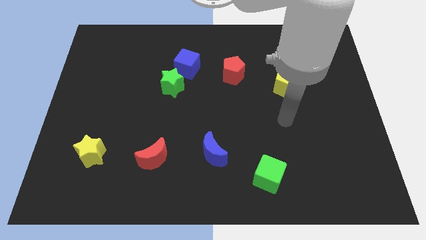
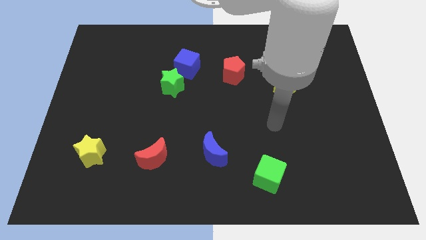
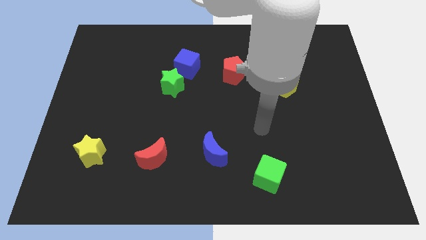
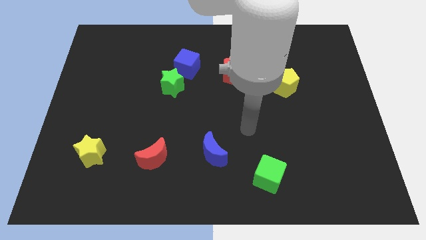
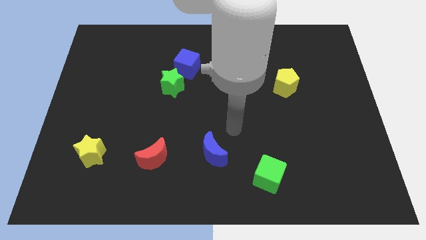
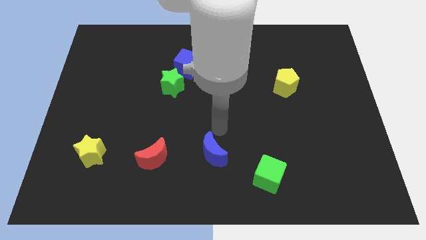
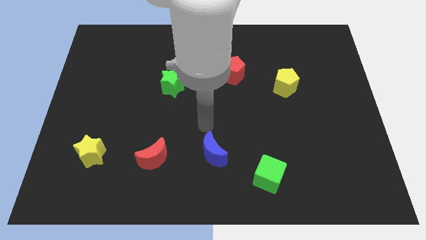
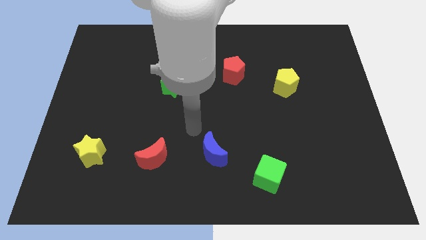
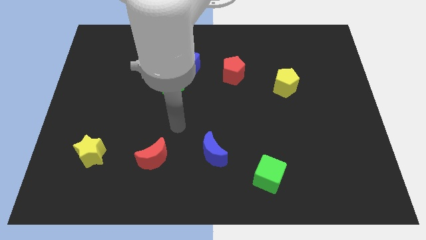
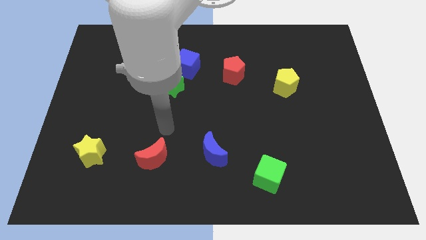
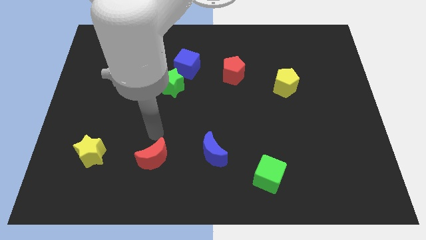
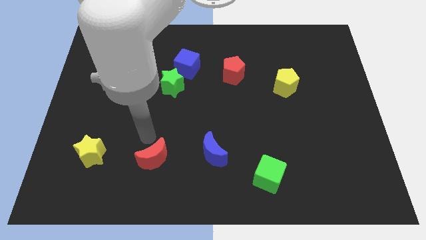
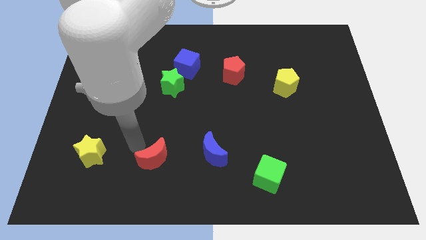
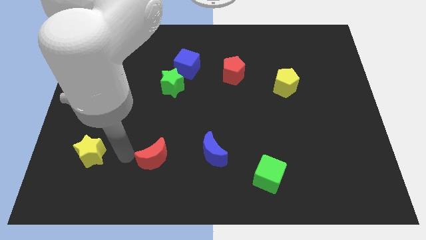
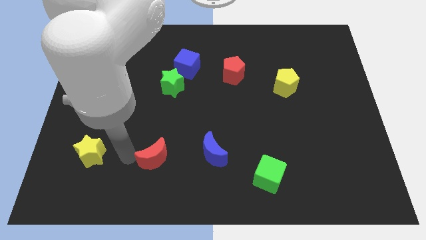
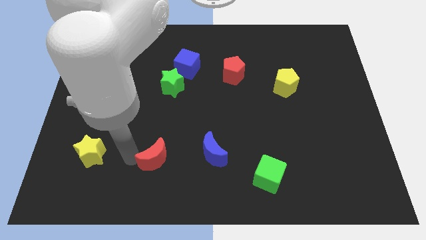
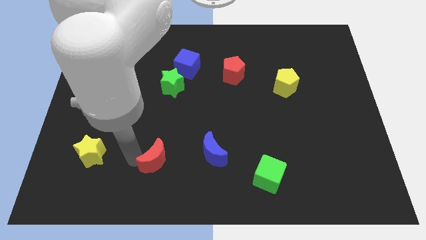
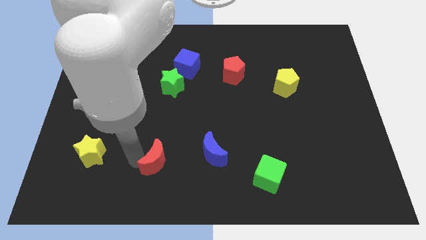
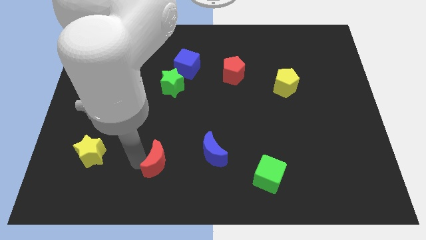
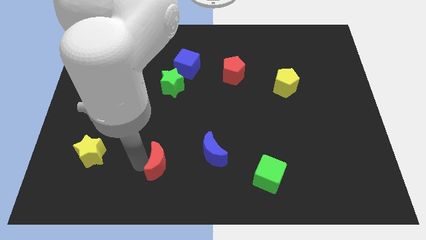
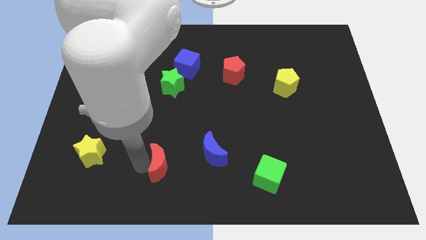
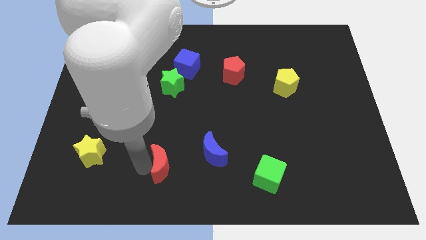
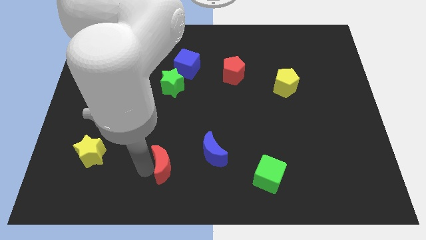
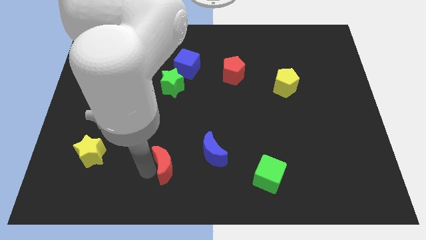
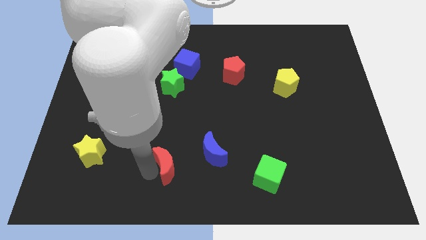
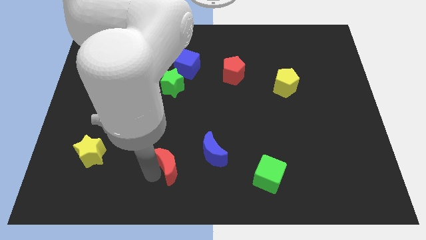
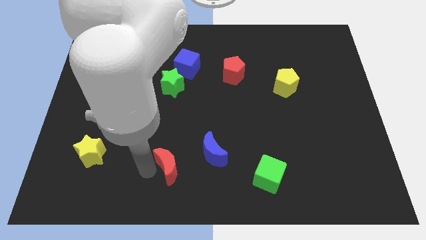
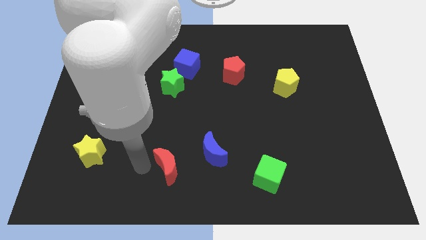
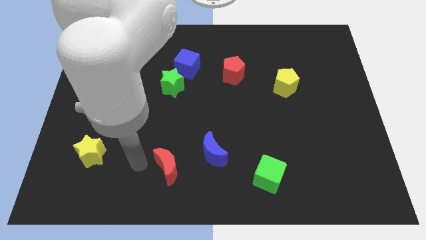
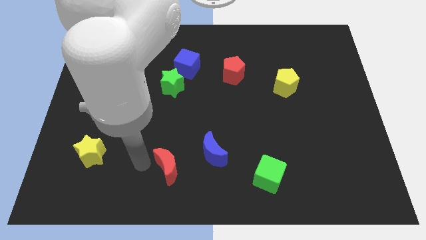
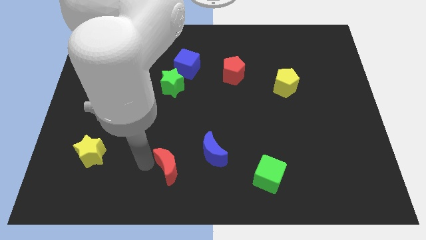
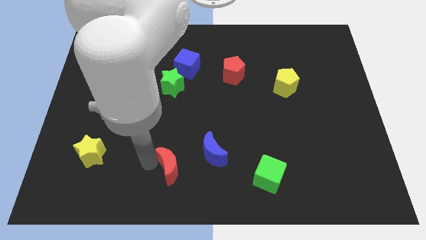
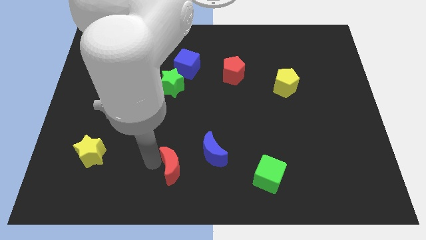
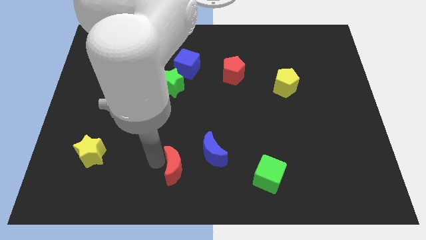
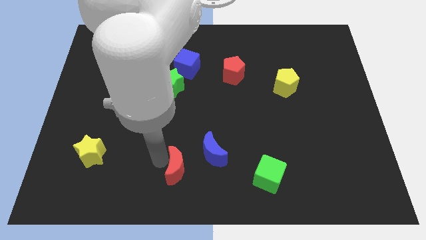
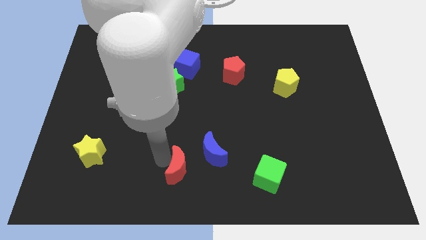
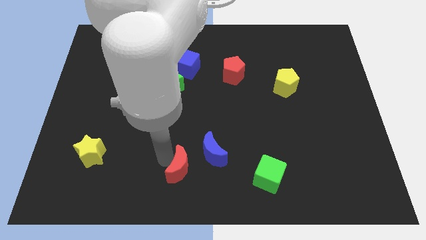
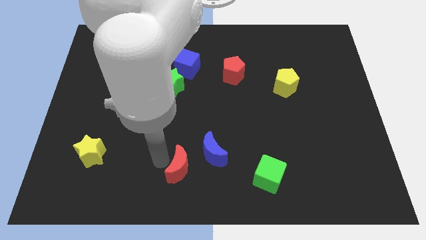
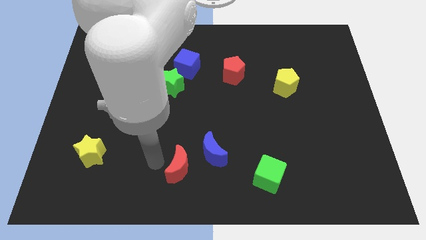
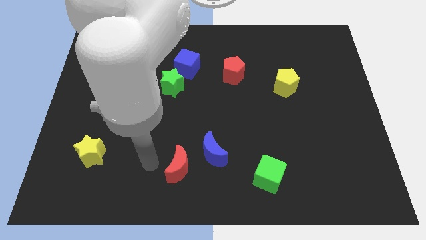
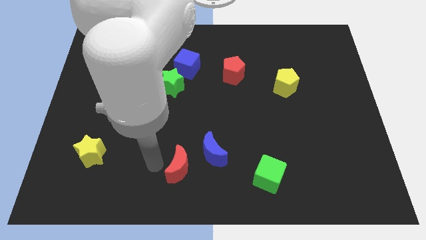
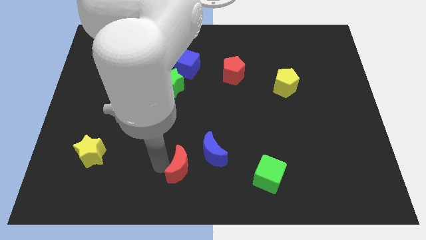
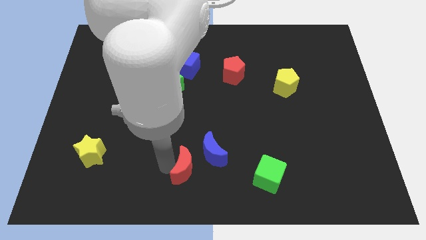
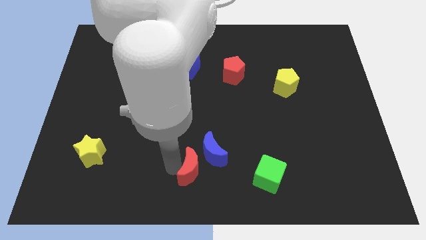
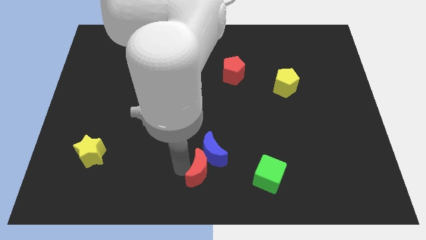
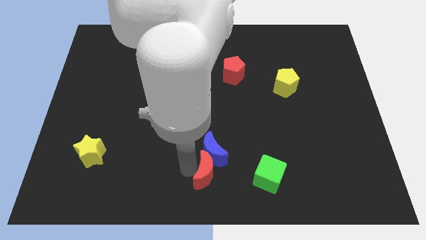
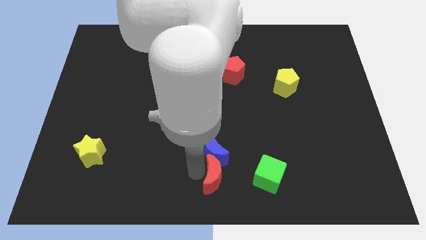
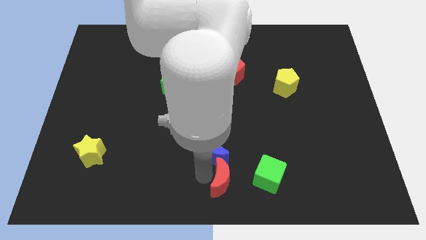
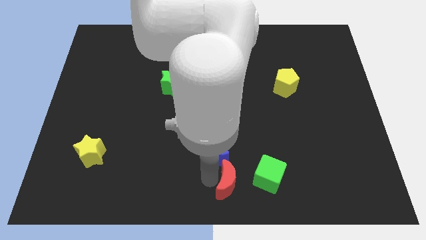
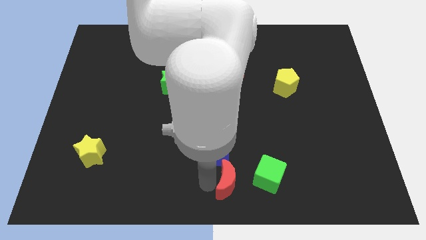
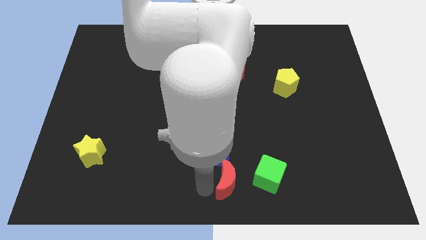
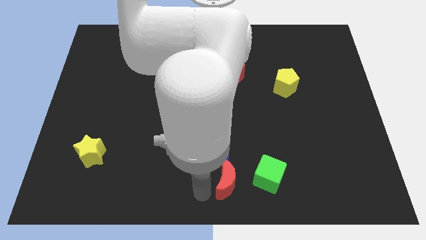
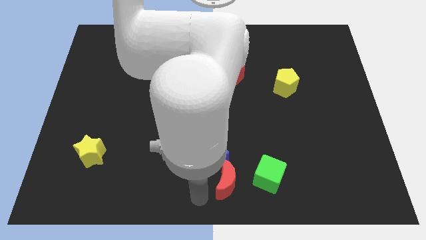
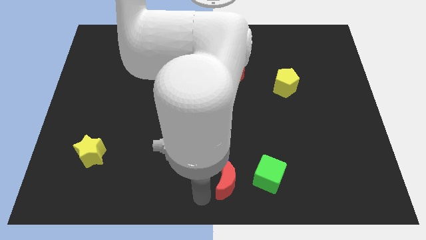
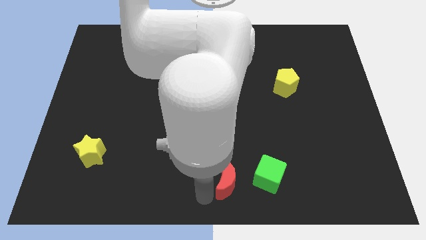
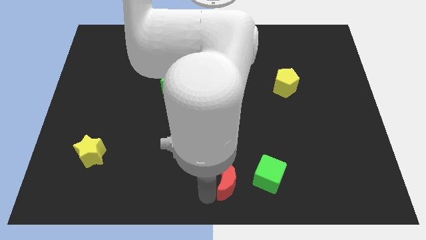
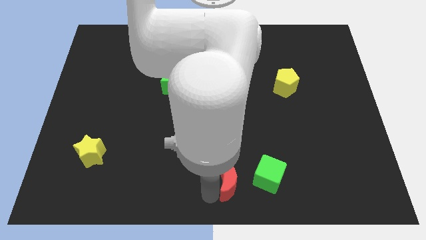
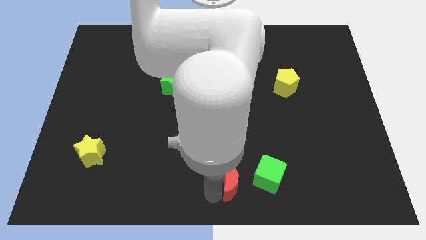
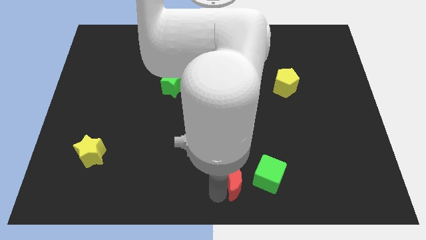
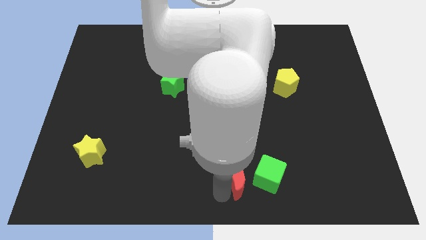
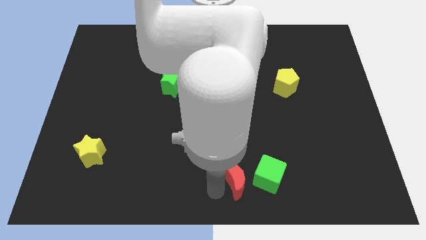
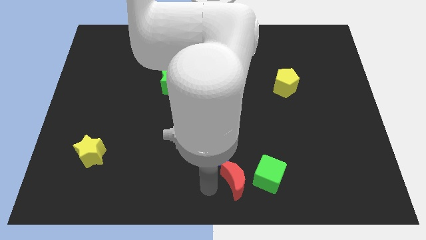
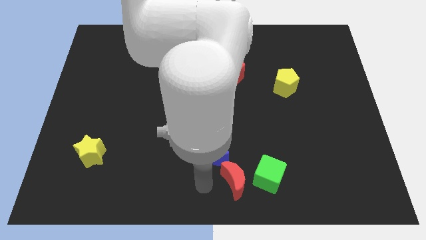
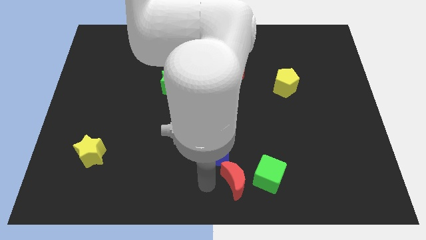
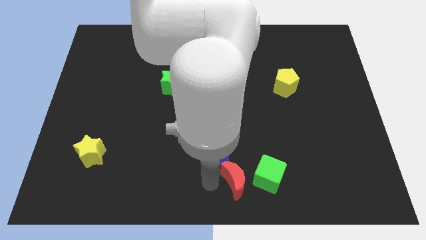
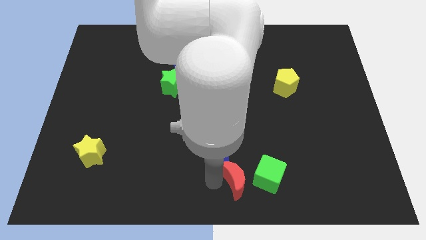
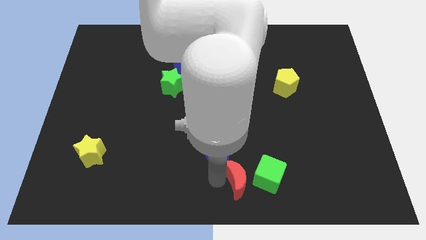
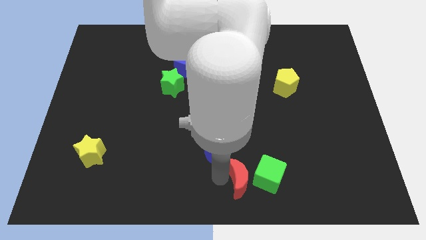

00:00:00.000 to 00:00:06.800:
slide the red moon next to the green cube
